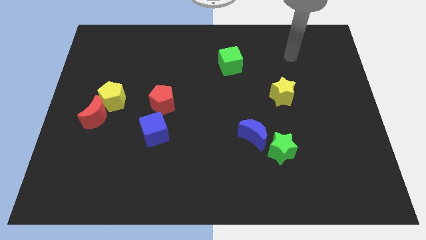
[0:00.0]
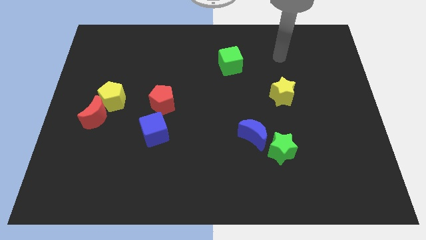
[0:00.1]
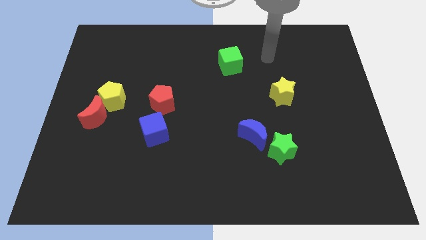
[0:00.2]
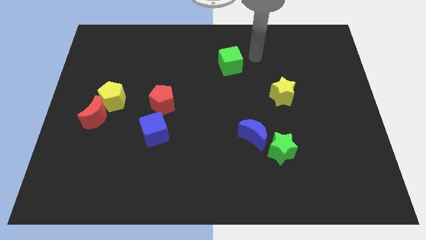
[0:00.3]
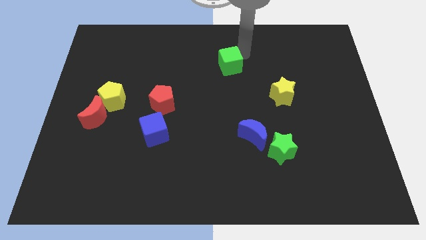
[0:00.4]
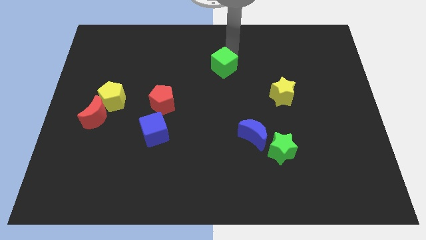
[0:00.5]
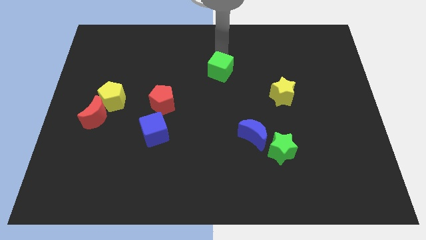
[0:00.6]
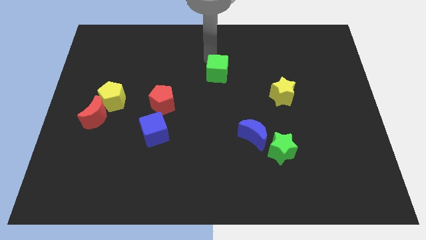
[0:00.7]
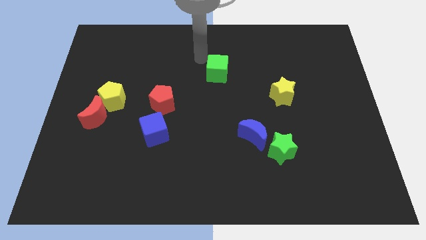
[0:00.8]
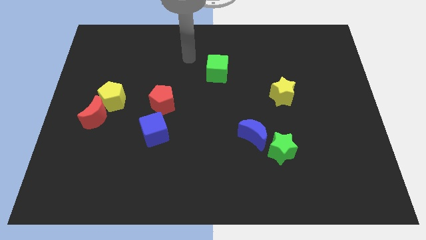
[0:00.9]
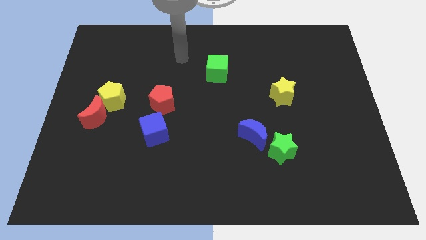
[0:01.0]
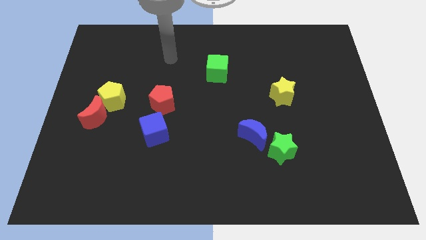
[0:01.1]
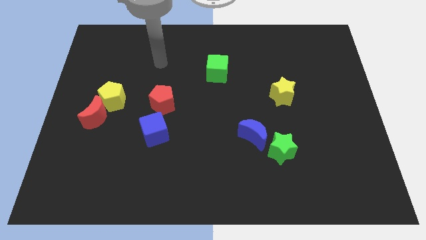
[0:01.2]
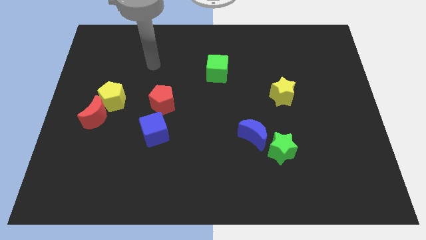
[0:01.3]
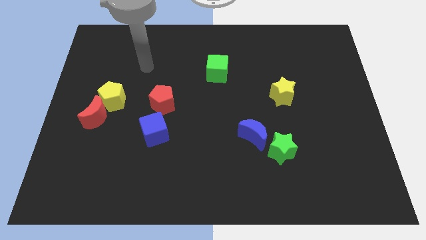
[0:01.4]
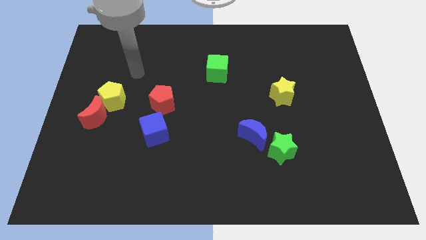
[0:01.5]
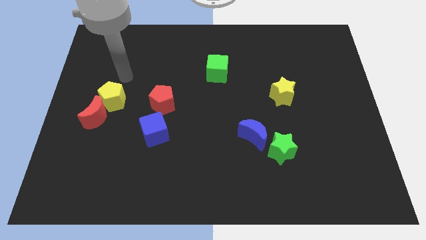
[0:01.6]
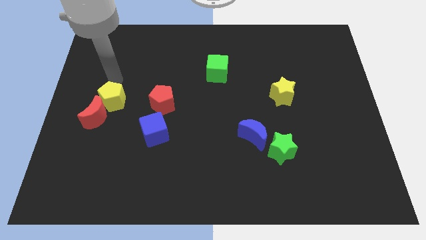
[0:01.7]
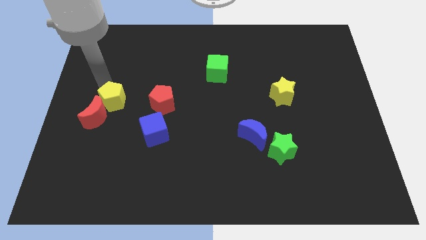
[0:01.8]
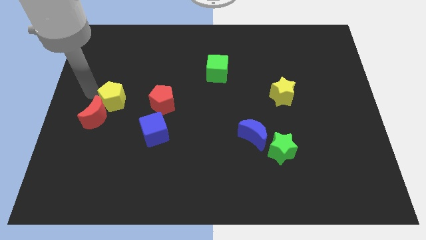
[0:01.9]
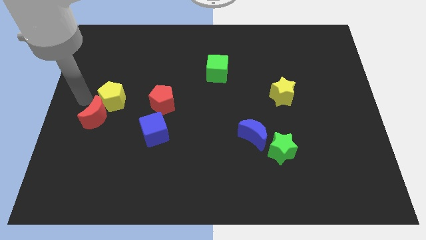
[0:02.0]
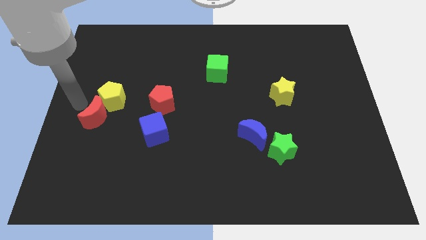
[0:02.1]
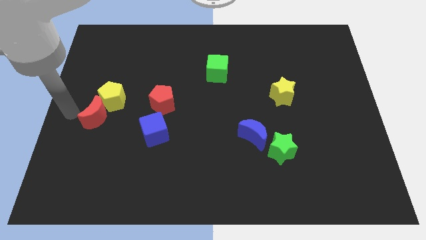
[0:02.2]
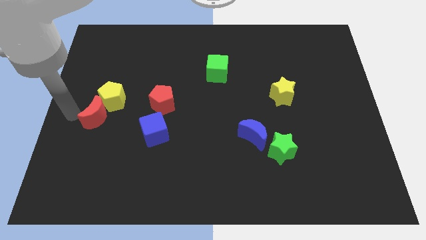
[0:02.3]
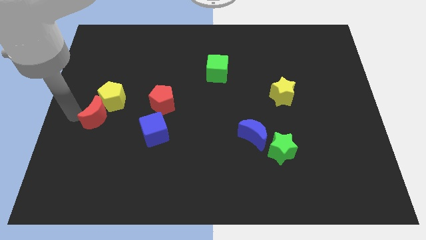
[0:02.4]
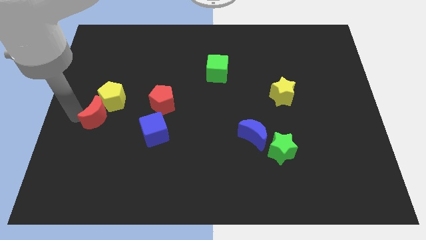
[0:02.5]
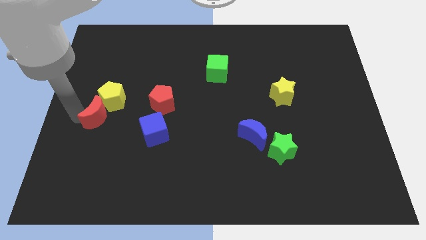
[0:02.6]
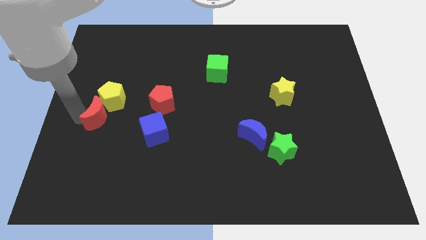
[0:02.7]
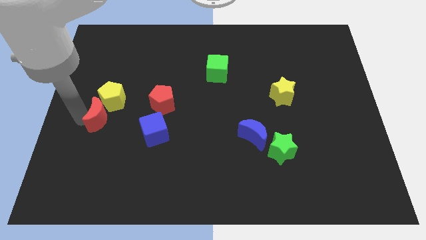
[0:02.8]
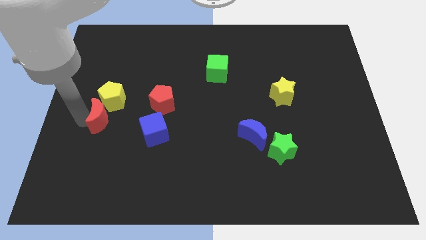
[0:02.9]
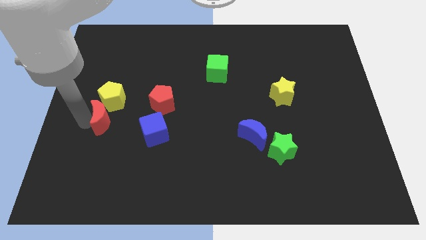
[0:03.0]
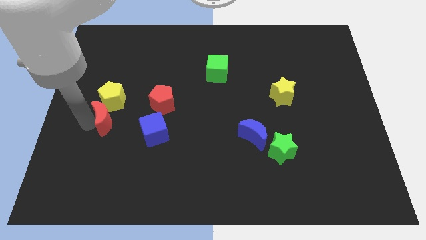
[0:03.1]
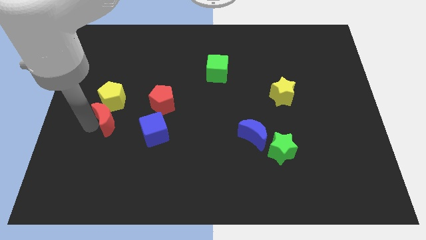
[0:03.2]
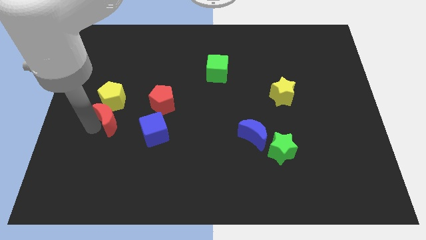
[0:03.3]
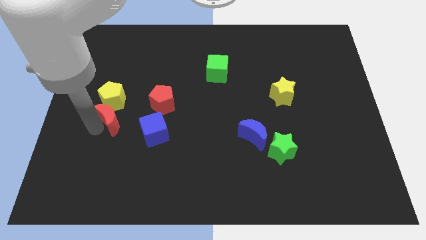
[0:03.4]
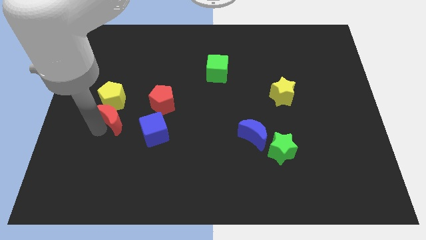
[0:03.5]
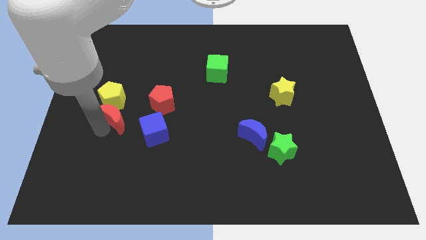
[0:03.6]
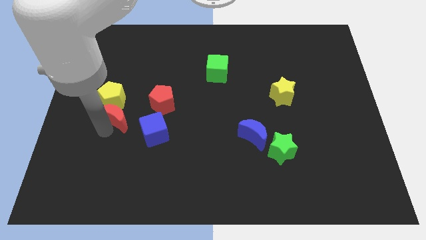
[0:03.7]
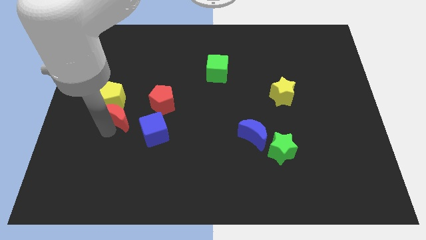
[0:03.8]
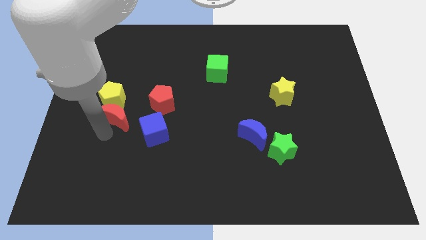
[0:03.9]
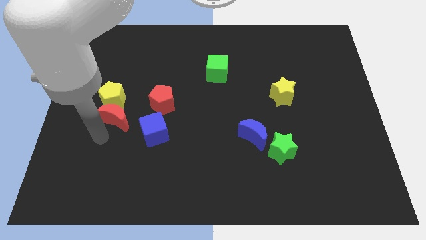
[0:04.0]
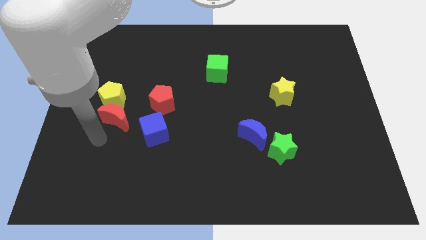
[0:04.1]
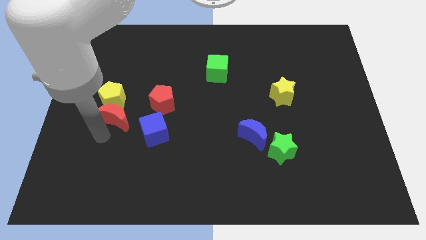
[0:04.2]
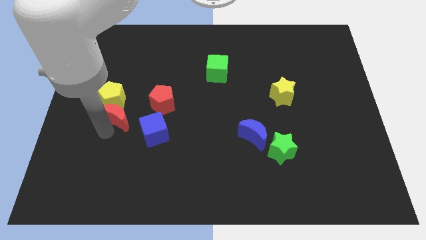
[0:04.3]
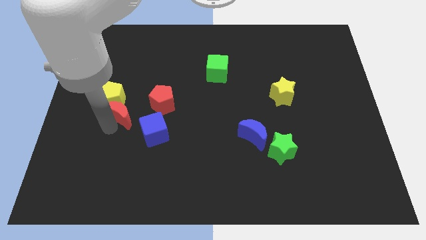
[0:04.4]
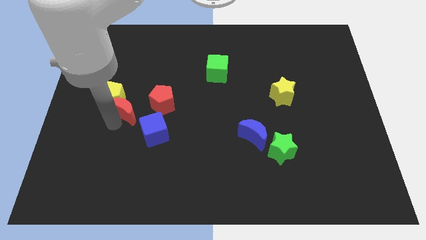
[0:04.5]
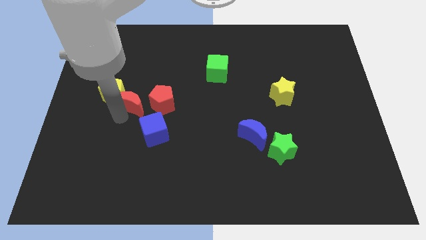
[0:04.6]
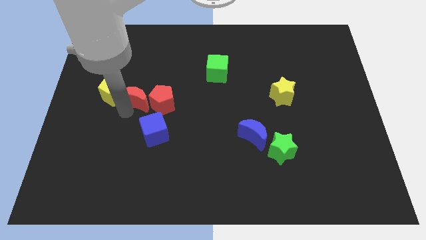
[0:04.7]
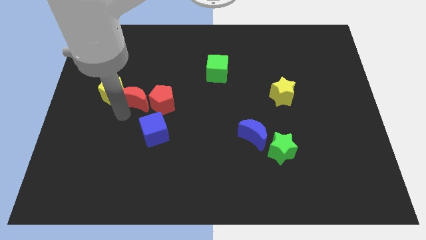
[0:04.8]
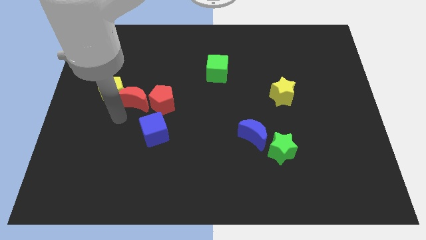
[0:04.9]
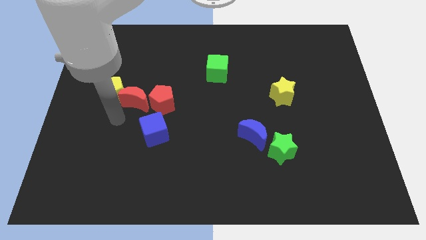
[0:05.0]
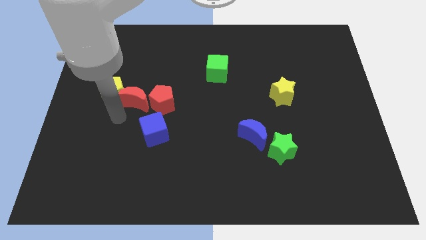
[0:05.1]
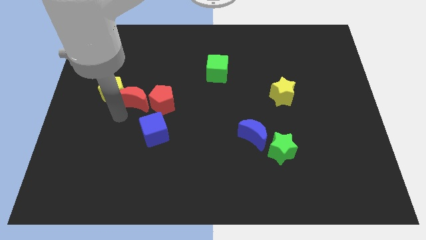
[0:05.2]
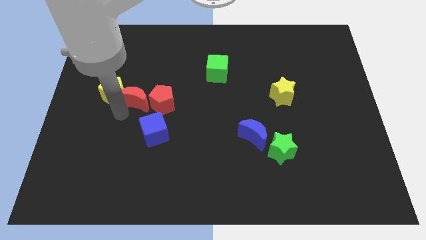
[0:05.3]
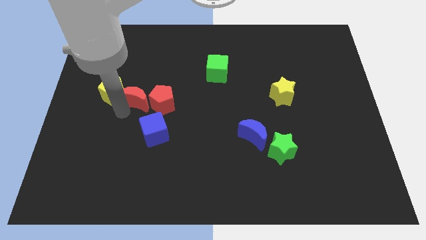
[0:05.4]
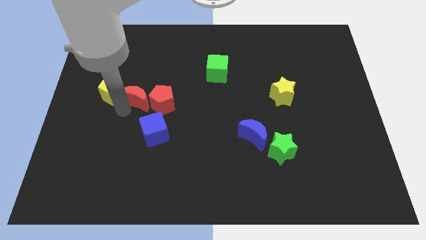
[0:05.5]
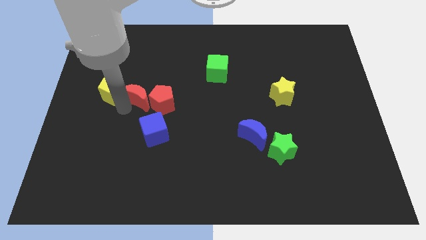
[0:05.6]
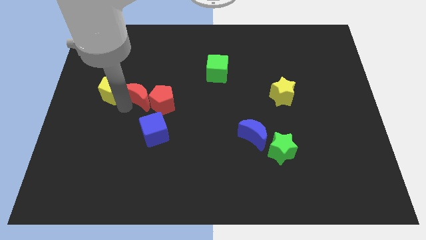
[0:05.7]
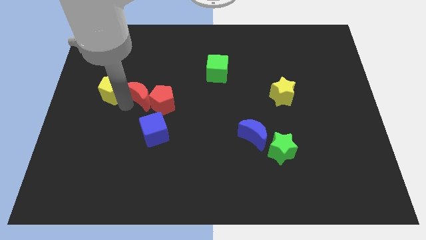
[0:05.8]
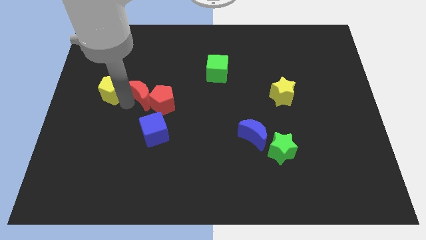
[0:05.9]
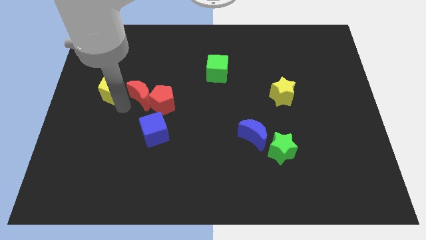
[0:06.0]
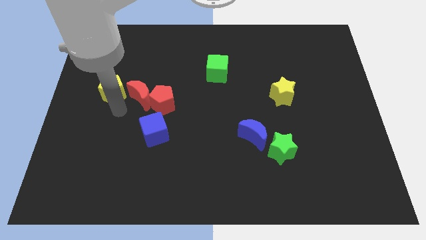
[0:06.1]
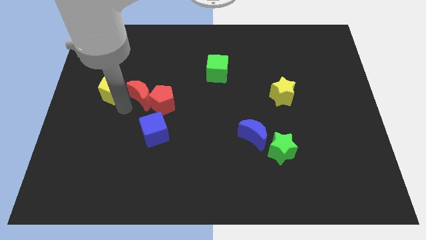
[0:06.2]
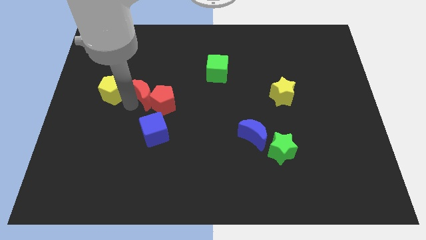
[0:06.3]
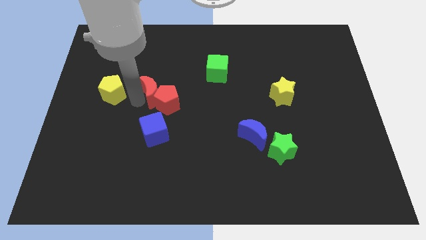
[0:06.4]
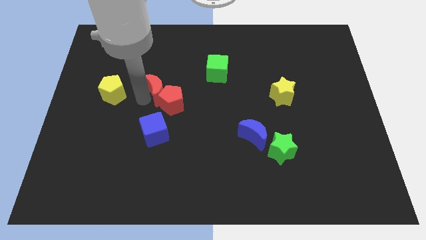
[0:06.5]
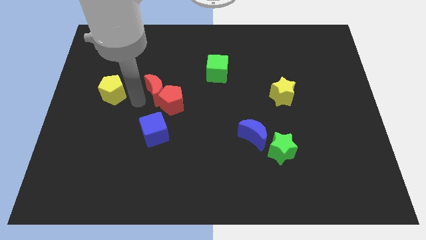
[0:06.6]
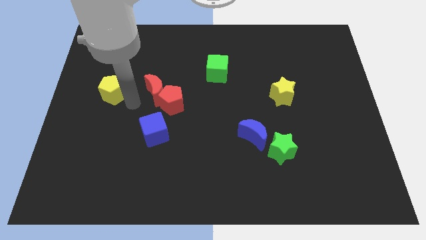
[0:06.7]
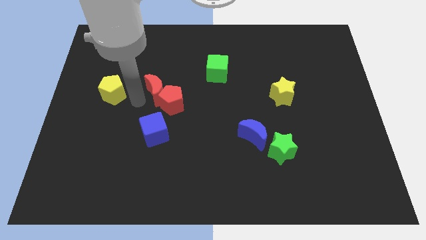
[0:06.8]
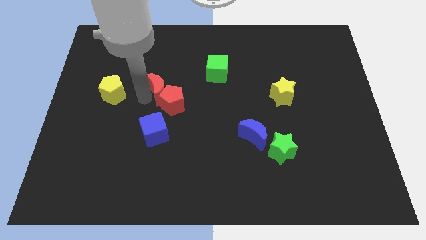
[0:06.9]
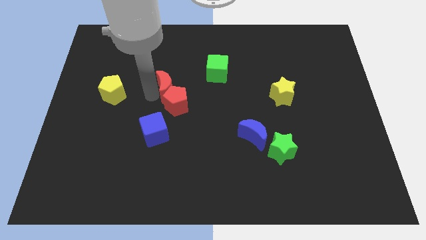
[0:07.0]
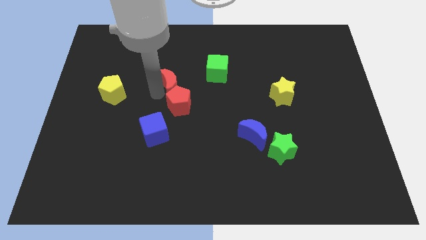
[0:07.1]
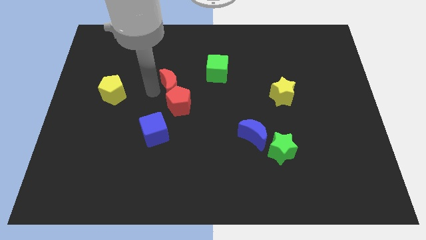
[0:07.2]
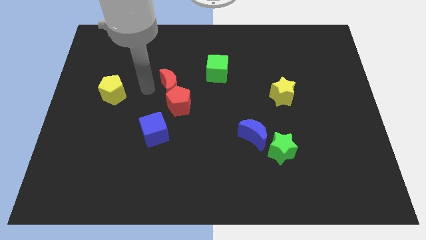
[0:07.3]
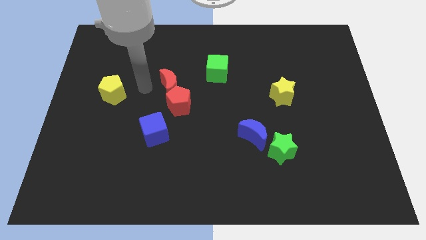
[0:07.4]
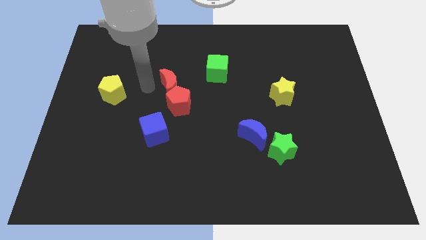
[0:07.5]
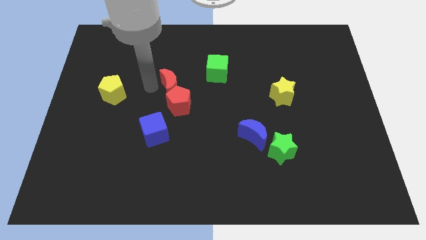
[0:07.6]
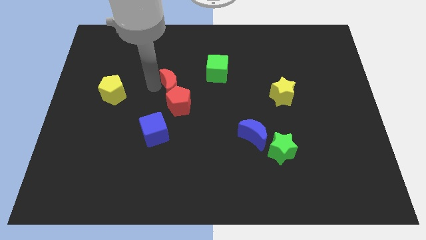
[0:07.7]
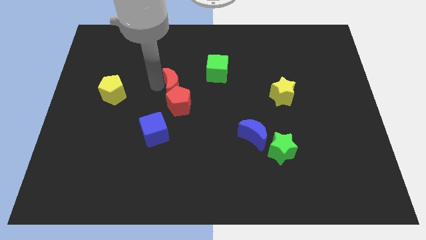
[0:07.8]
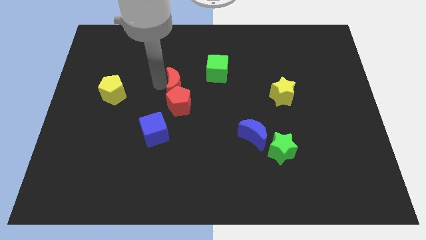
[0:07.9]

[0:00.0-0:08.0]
move the red moon to the bottom left of the green cube
